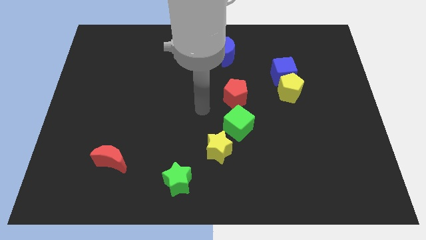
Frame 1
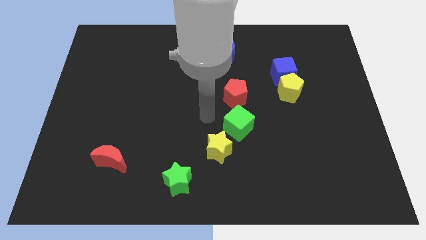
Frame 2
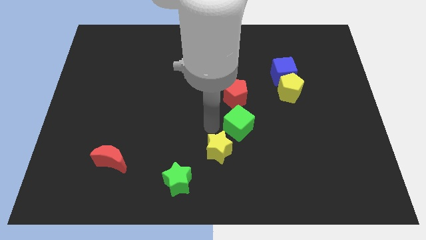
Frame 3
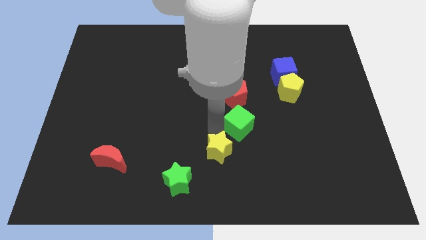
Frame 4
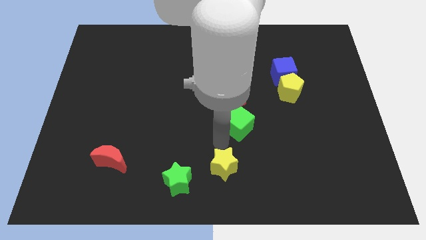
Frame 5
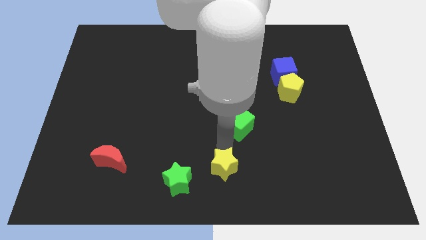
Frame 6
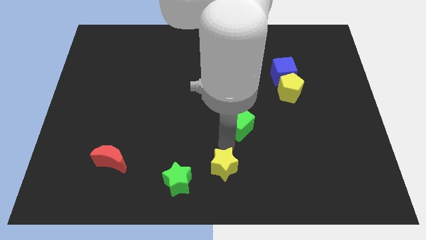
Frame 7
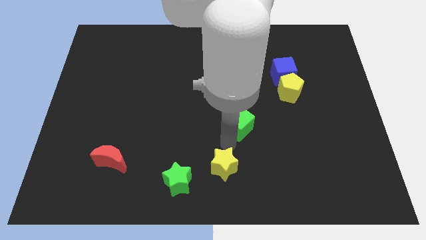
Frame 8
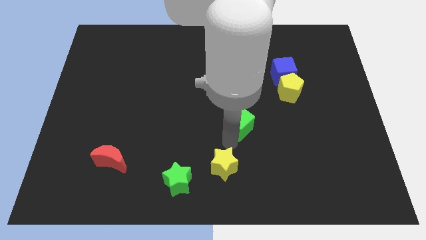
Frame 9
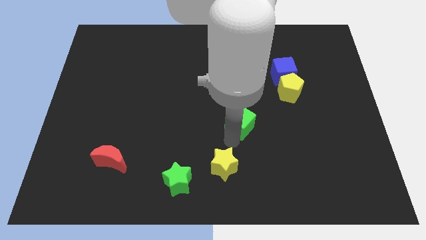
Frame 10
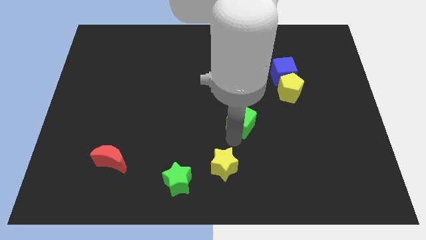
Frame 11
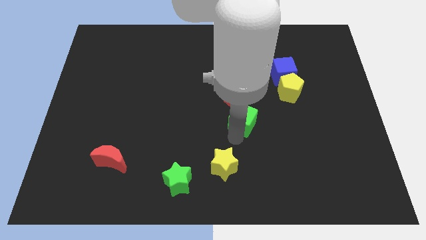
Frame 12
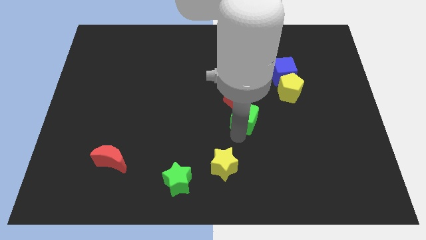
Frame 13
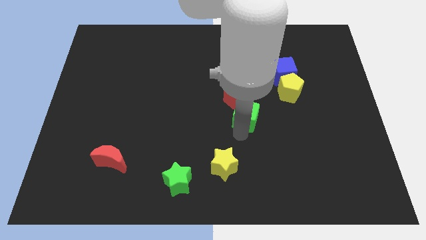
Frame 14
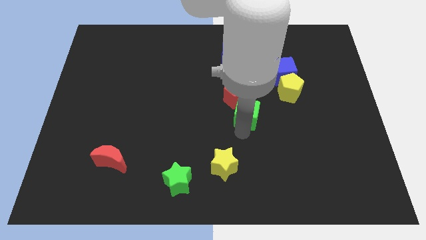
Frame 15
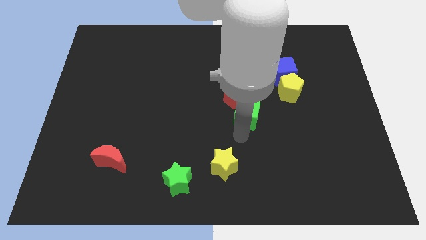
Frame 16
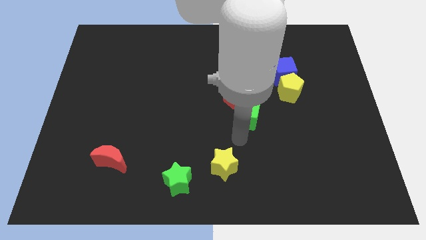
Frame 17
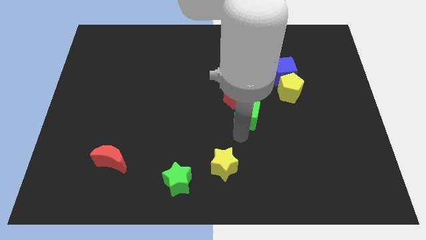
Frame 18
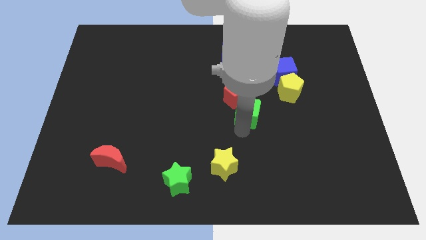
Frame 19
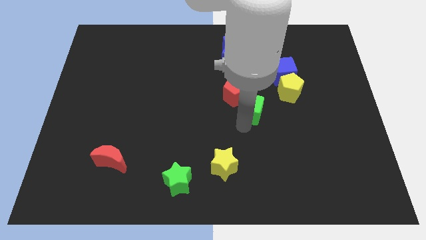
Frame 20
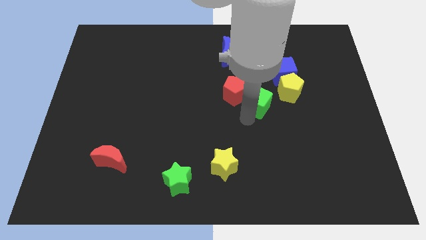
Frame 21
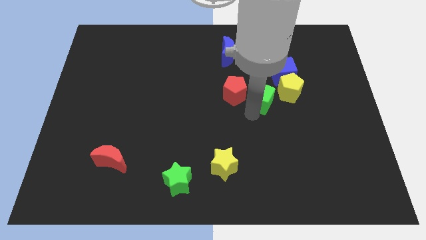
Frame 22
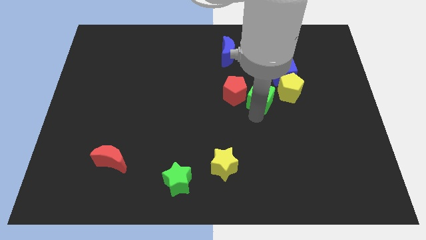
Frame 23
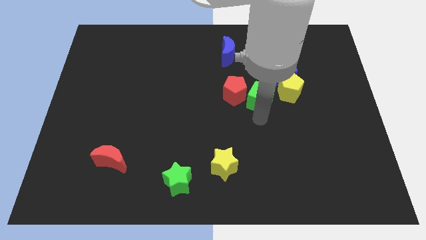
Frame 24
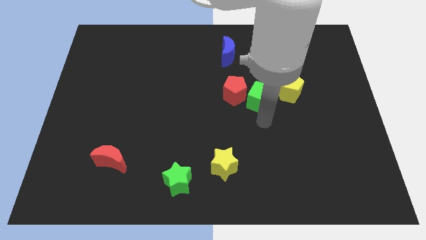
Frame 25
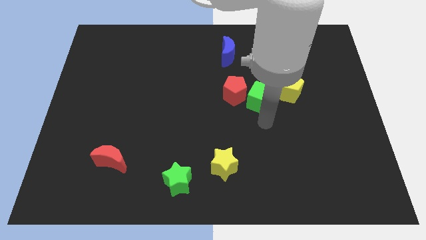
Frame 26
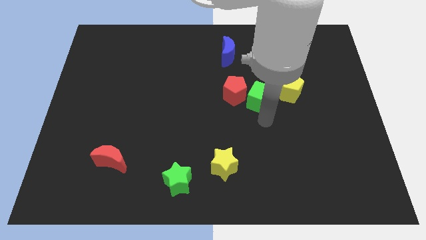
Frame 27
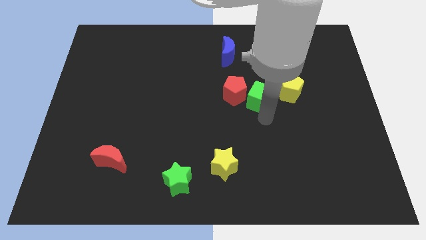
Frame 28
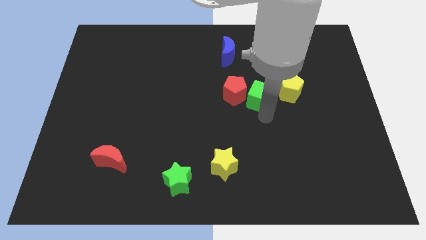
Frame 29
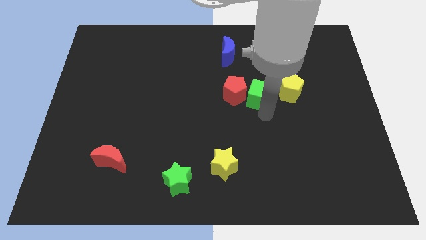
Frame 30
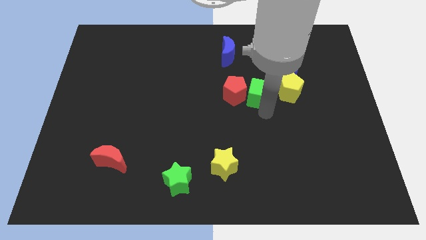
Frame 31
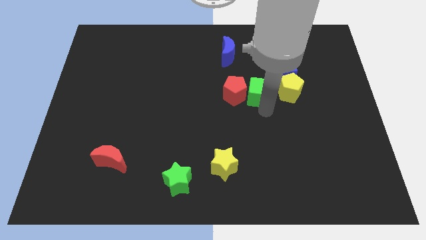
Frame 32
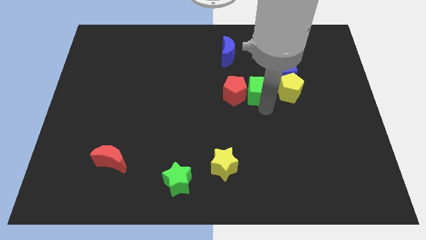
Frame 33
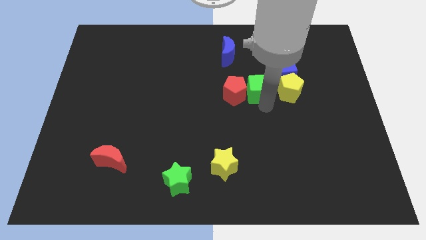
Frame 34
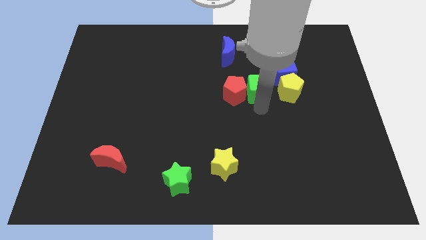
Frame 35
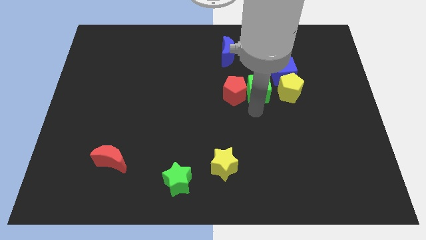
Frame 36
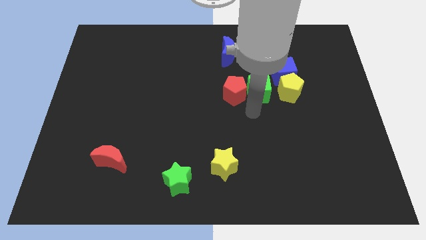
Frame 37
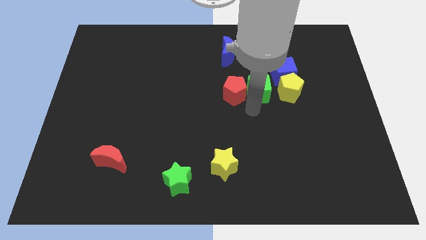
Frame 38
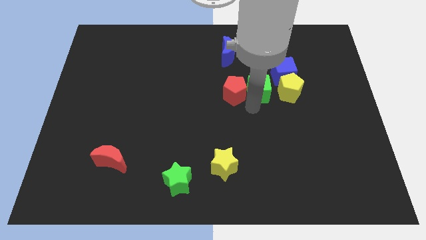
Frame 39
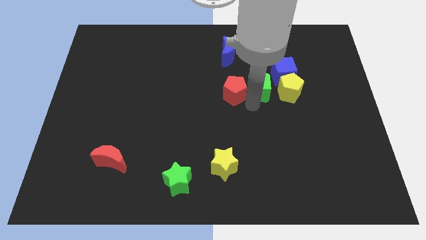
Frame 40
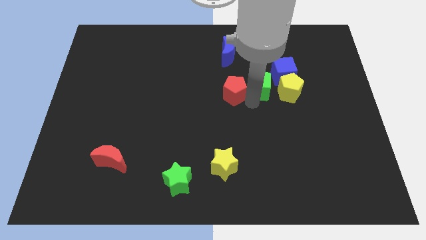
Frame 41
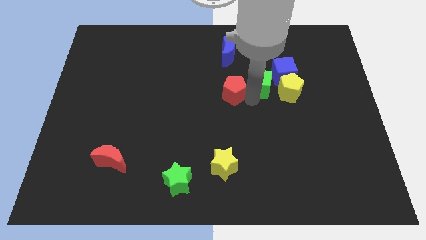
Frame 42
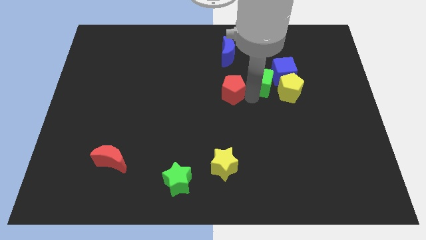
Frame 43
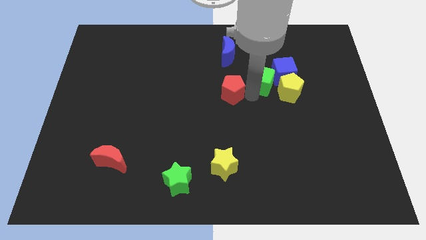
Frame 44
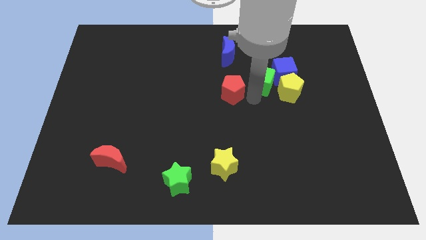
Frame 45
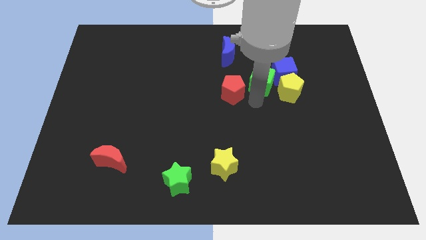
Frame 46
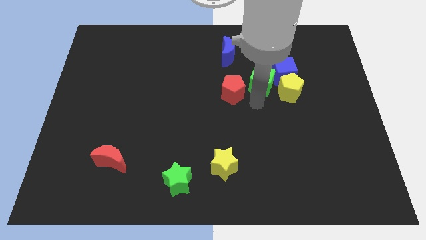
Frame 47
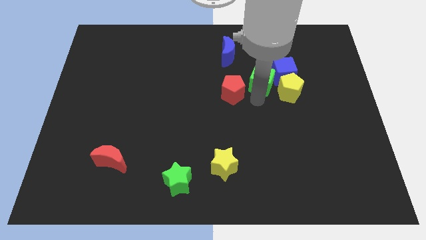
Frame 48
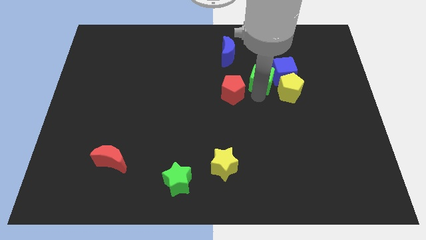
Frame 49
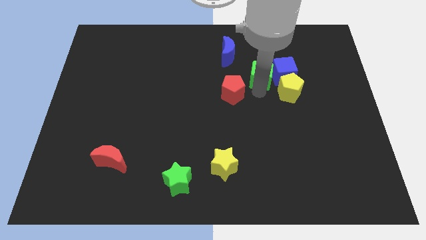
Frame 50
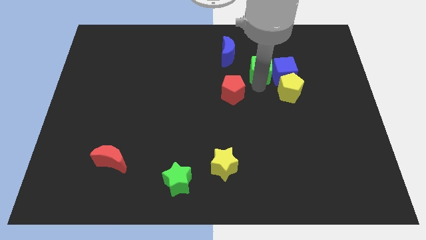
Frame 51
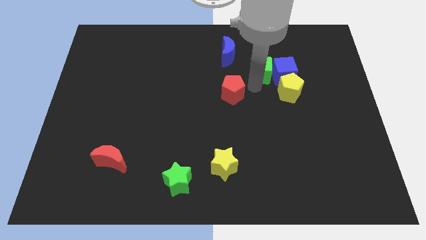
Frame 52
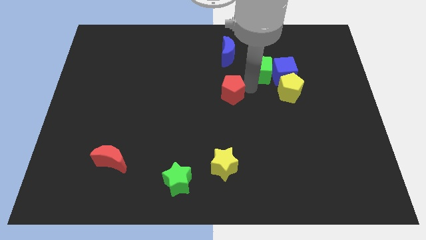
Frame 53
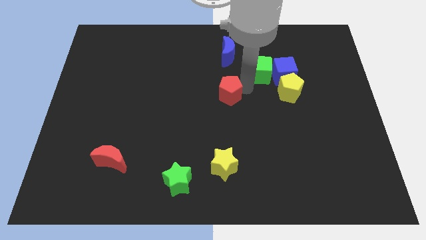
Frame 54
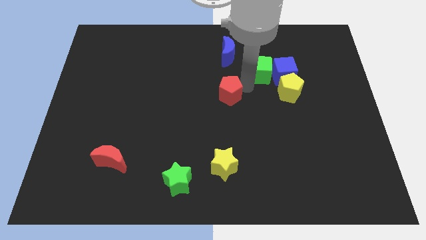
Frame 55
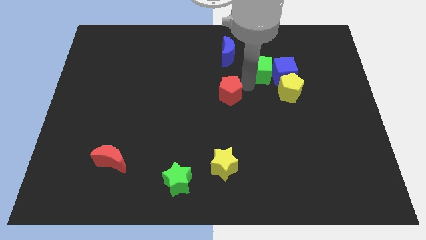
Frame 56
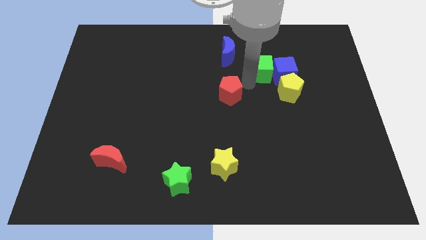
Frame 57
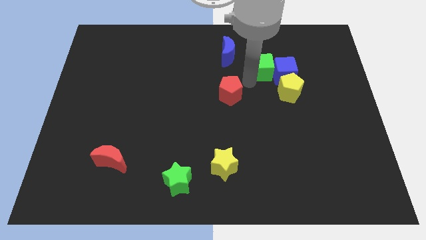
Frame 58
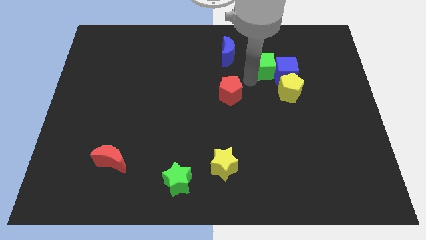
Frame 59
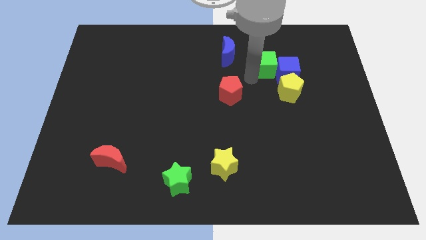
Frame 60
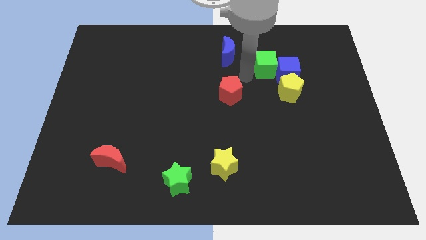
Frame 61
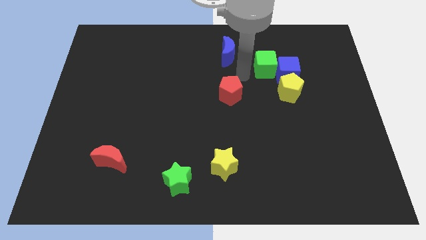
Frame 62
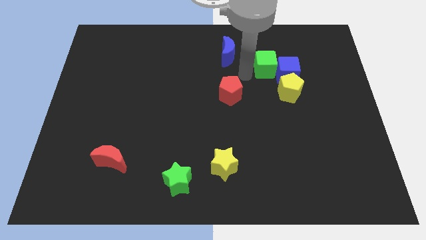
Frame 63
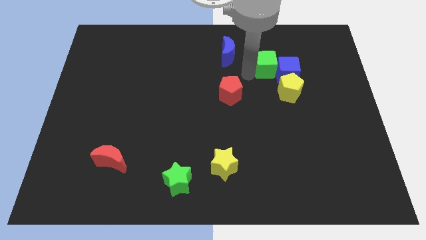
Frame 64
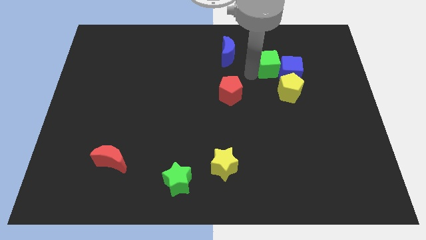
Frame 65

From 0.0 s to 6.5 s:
move the green cube to the top of the yellow pentagon
